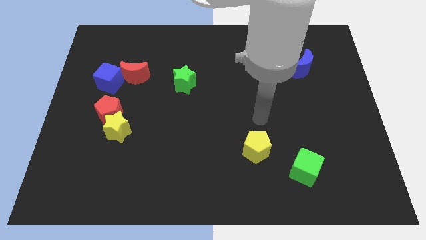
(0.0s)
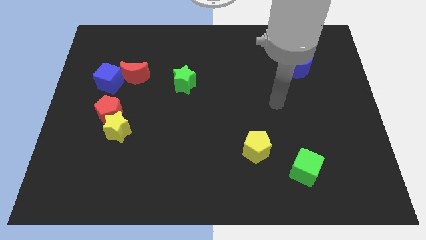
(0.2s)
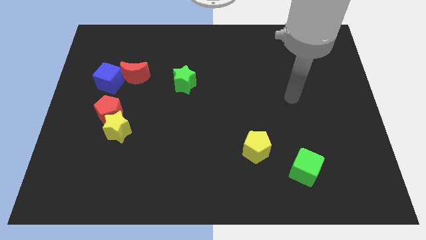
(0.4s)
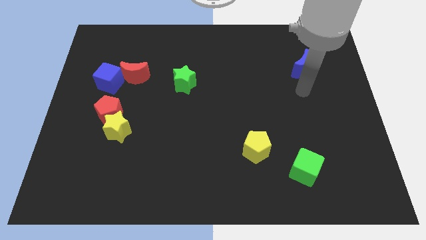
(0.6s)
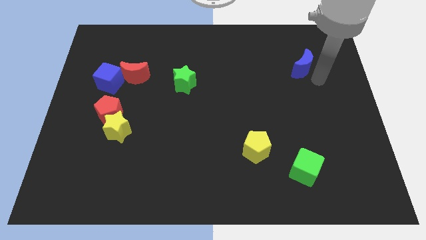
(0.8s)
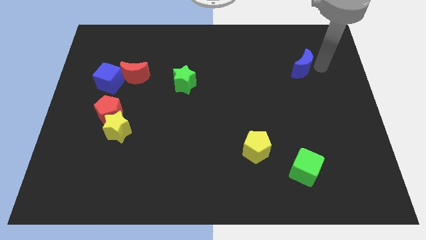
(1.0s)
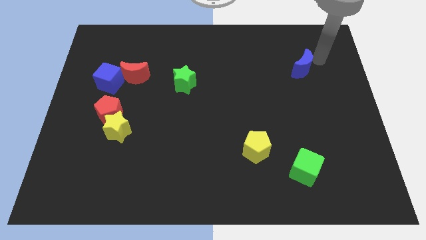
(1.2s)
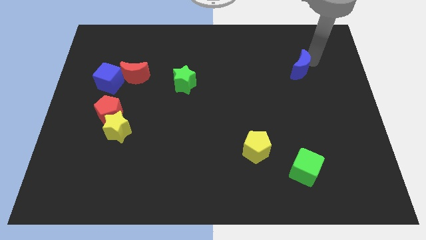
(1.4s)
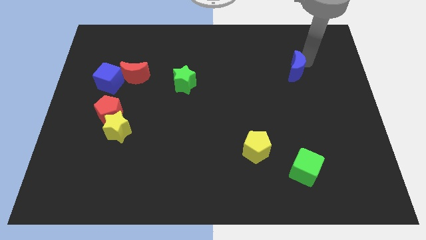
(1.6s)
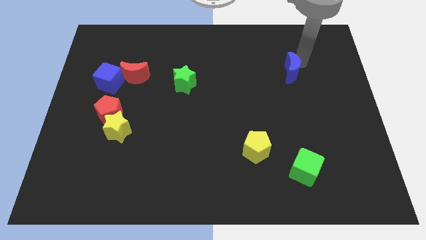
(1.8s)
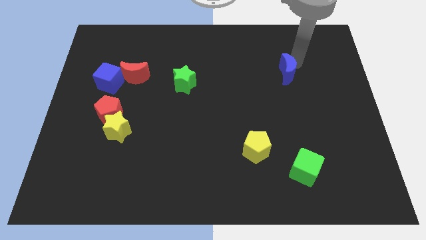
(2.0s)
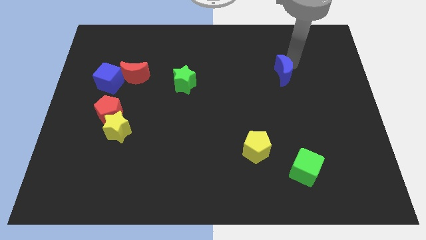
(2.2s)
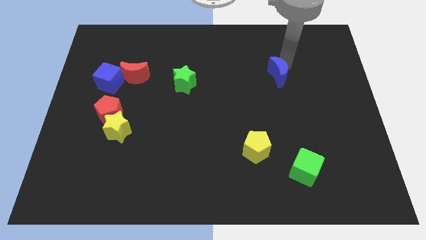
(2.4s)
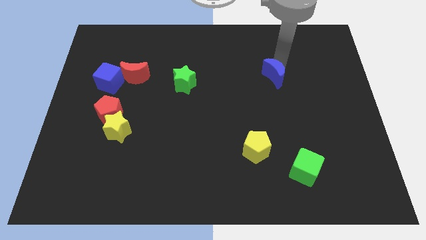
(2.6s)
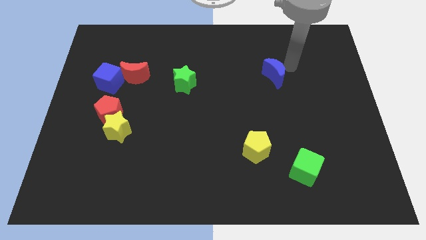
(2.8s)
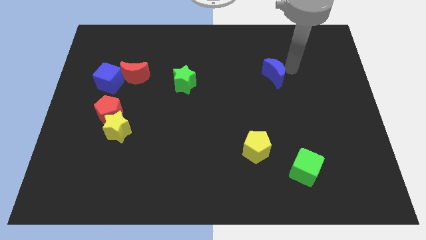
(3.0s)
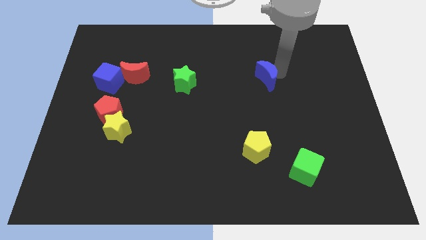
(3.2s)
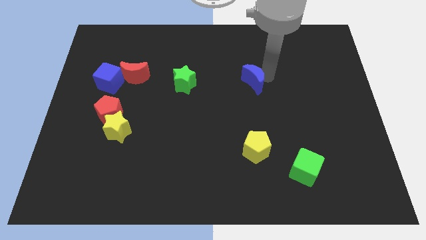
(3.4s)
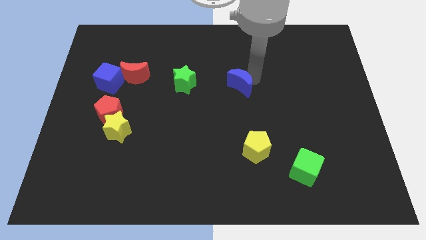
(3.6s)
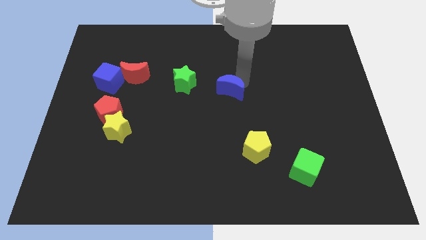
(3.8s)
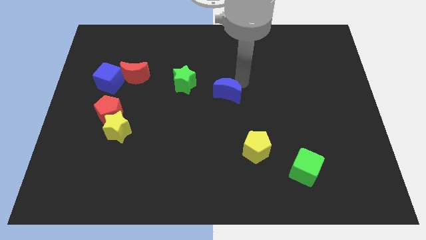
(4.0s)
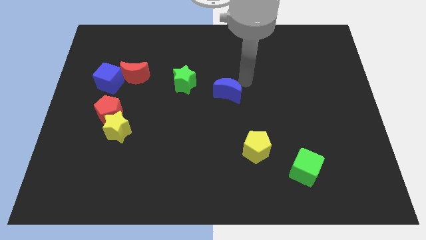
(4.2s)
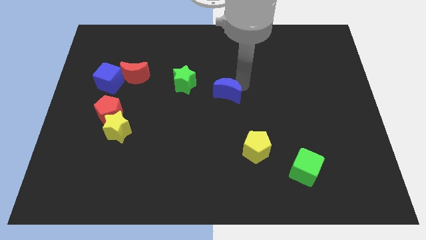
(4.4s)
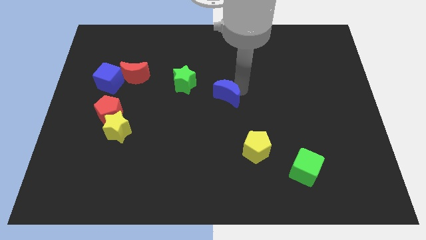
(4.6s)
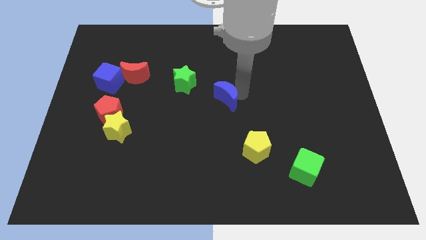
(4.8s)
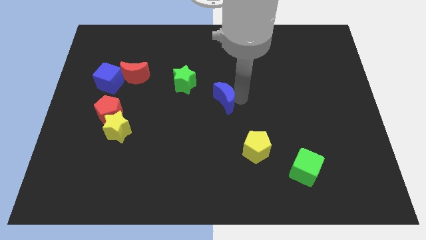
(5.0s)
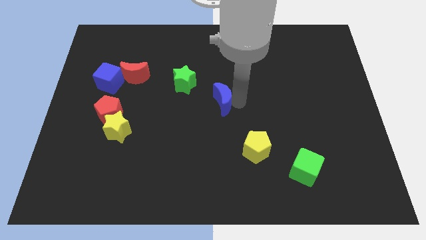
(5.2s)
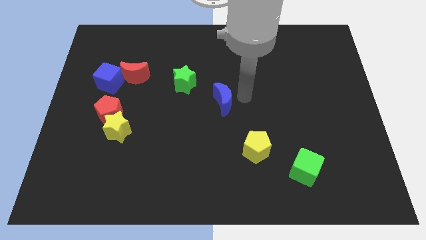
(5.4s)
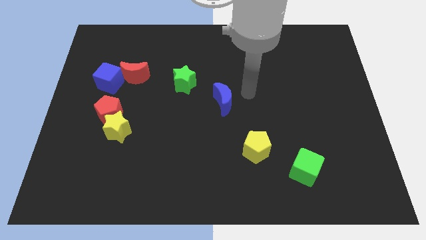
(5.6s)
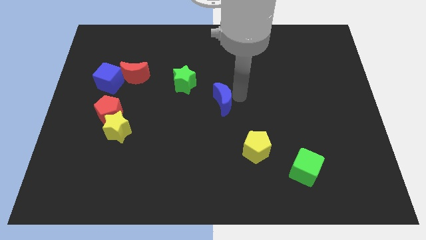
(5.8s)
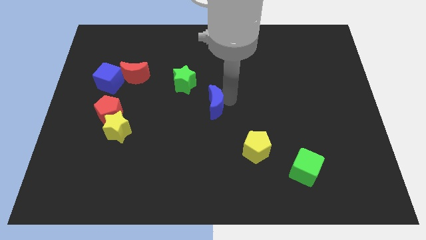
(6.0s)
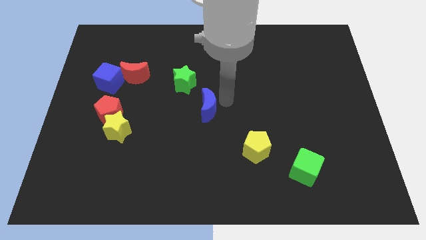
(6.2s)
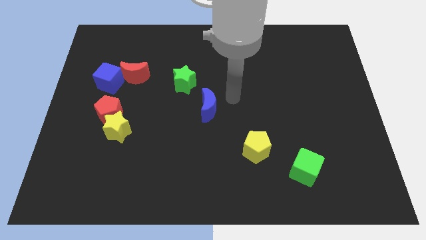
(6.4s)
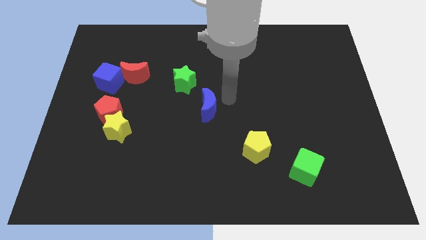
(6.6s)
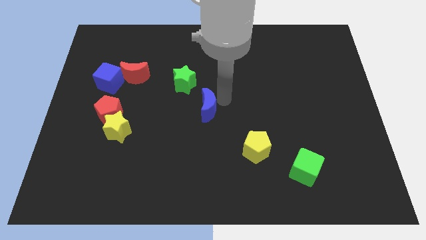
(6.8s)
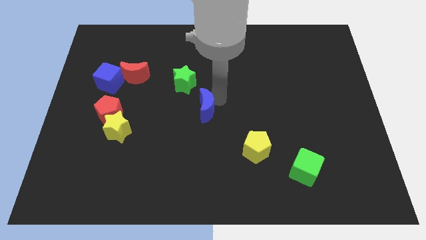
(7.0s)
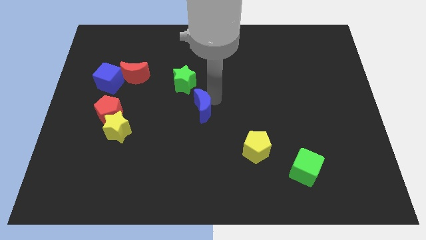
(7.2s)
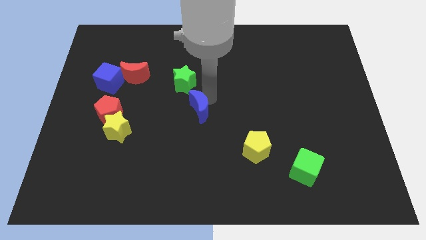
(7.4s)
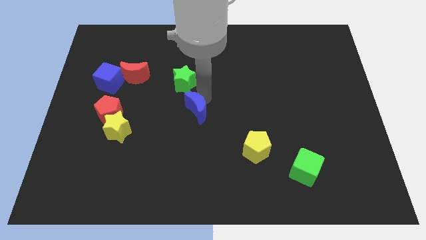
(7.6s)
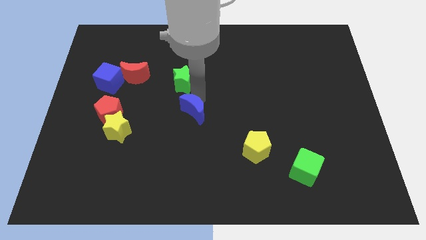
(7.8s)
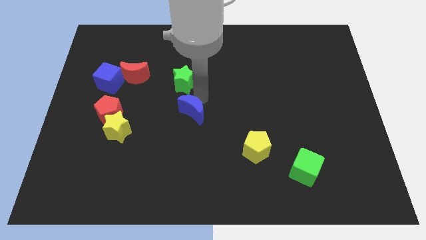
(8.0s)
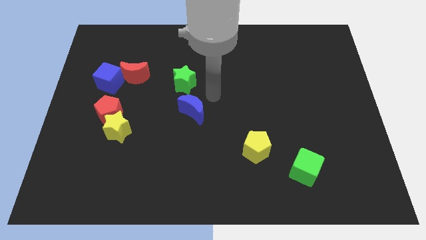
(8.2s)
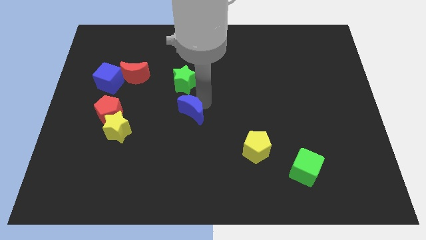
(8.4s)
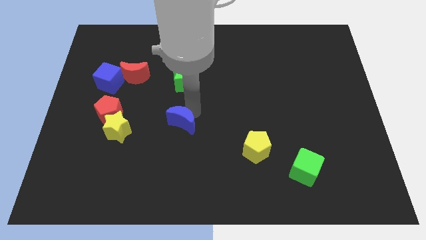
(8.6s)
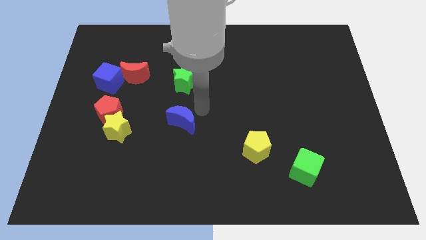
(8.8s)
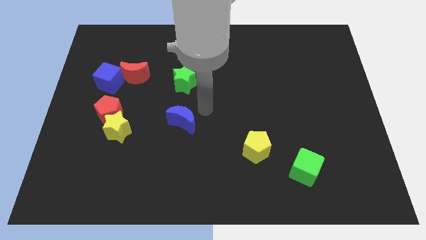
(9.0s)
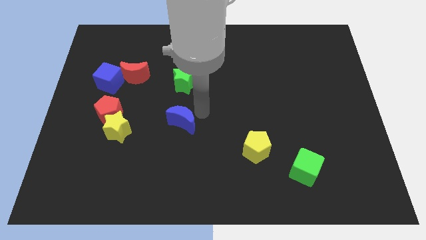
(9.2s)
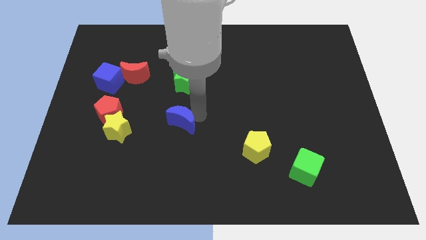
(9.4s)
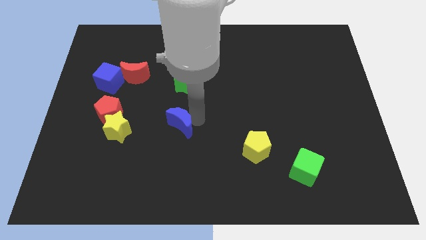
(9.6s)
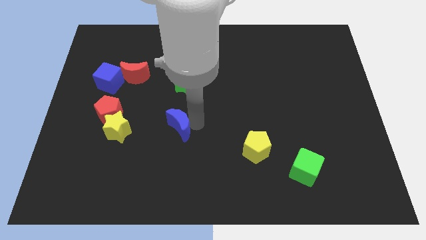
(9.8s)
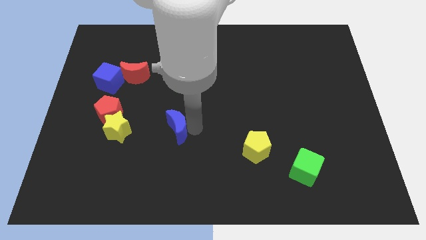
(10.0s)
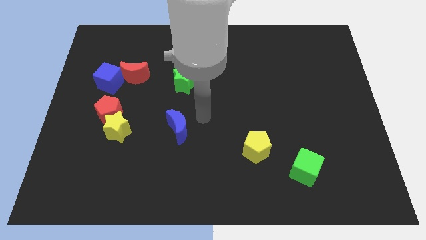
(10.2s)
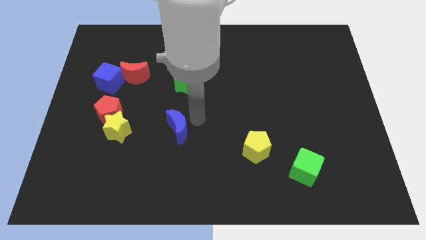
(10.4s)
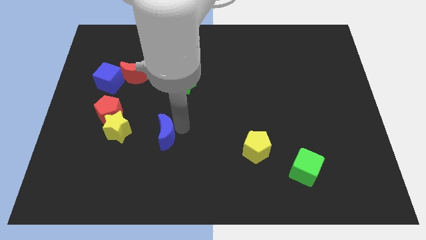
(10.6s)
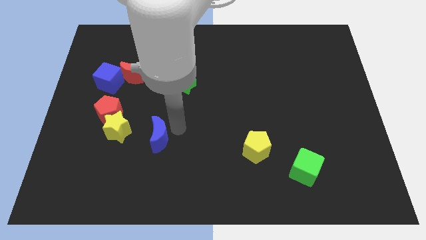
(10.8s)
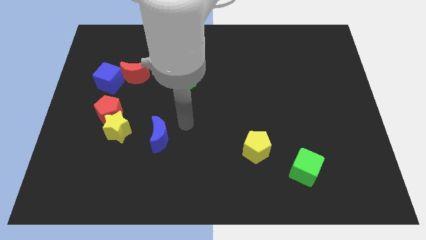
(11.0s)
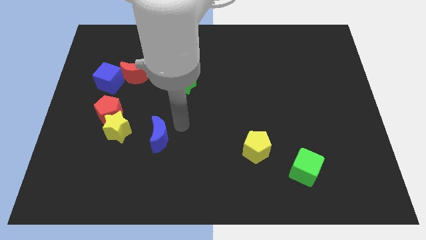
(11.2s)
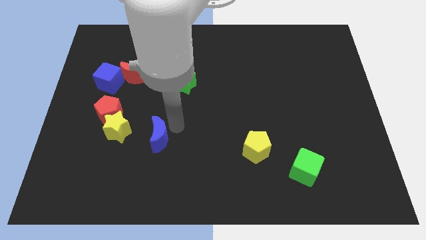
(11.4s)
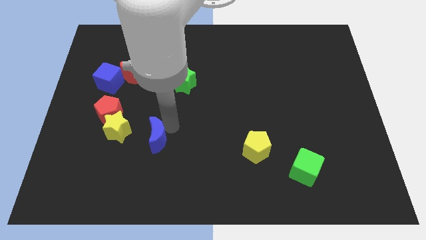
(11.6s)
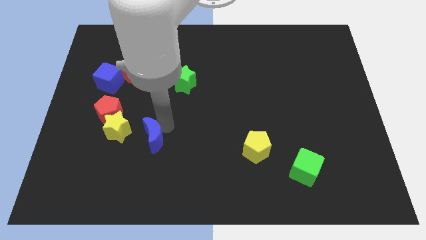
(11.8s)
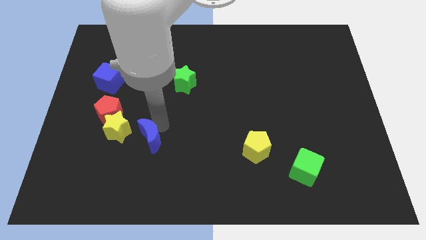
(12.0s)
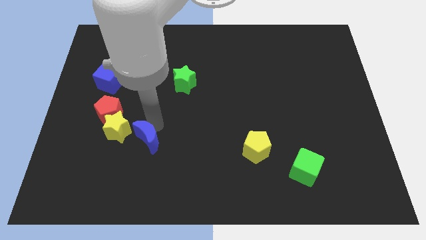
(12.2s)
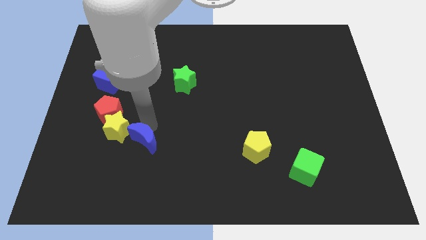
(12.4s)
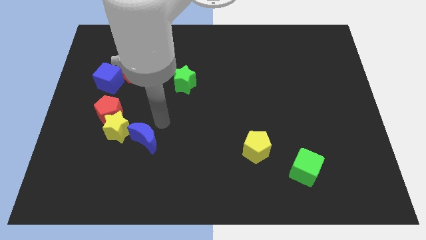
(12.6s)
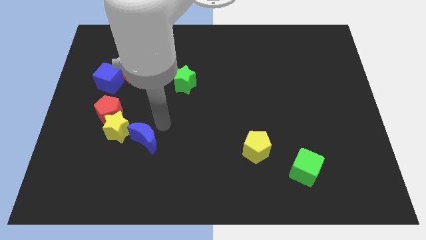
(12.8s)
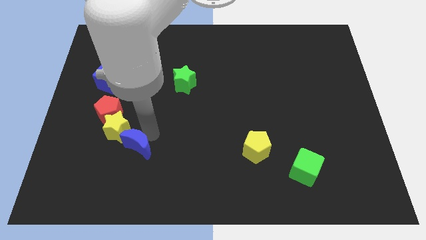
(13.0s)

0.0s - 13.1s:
move the blue moon to the bottom side of the yellow star

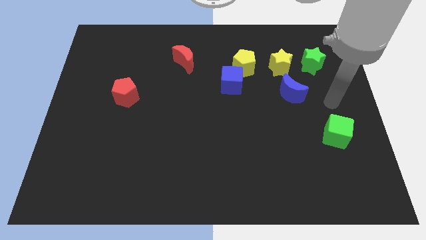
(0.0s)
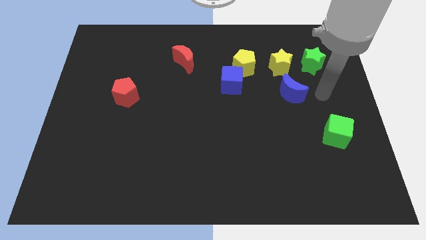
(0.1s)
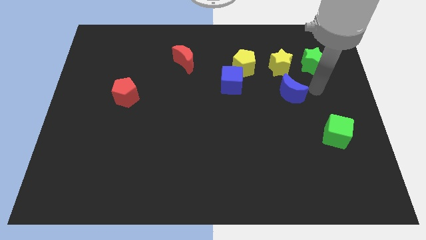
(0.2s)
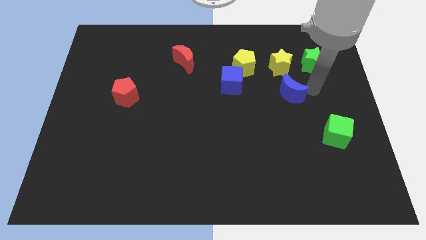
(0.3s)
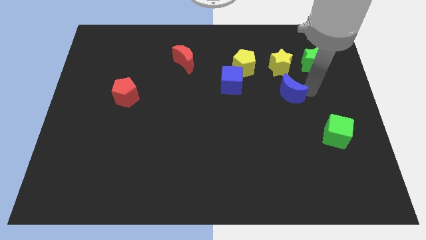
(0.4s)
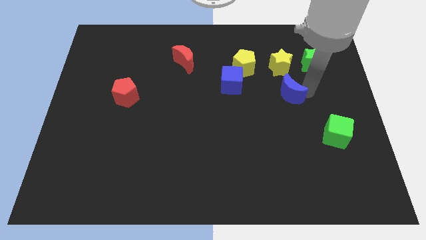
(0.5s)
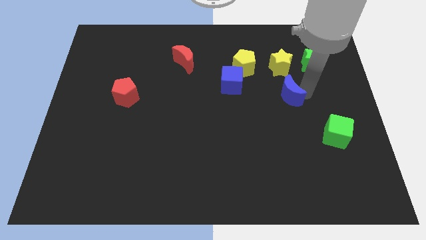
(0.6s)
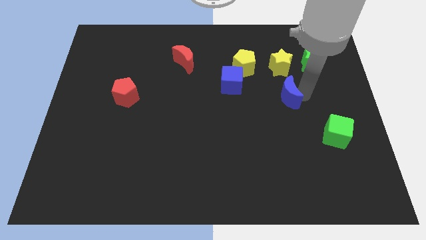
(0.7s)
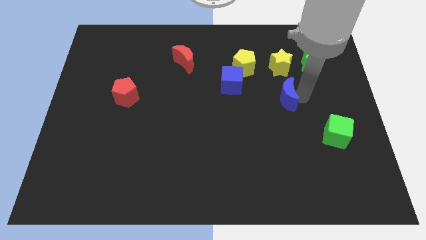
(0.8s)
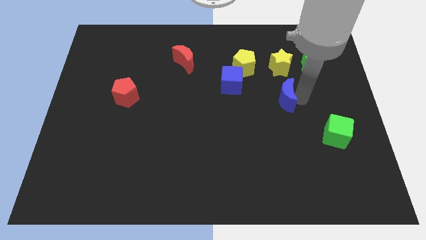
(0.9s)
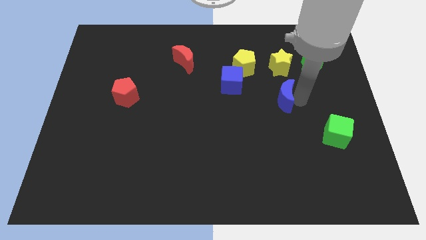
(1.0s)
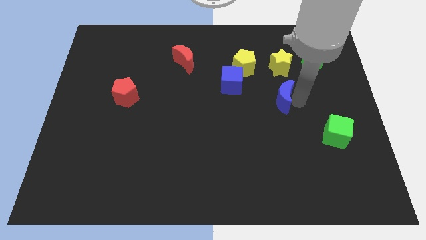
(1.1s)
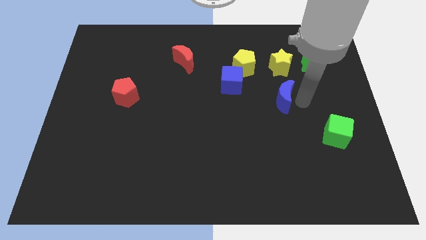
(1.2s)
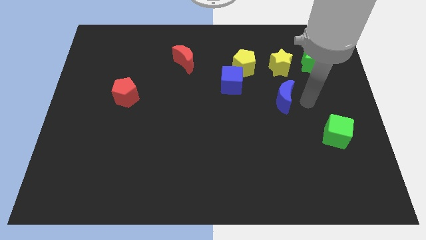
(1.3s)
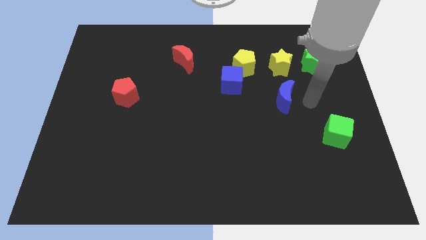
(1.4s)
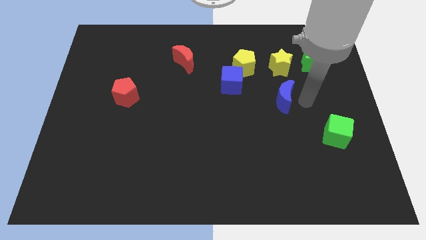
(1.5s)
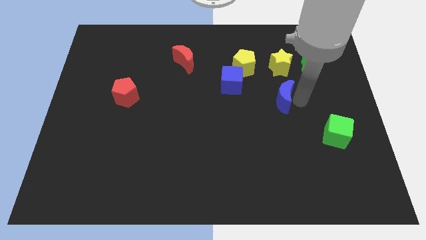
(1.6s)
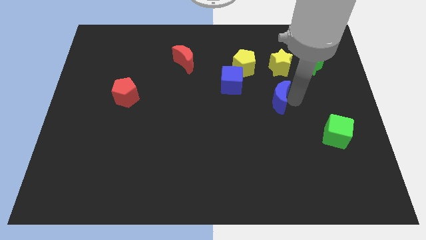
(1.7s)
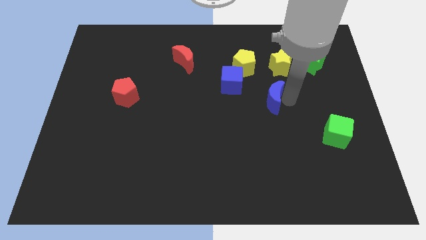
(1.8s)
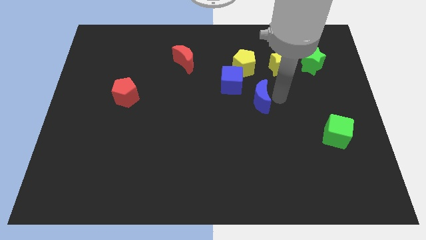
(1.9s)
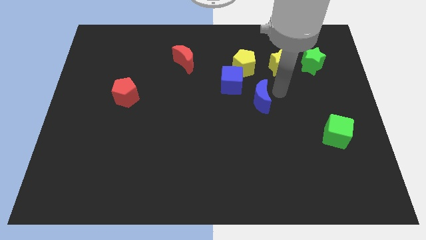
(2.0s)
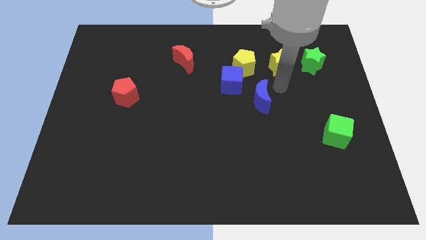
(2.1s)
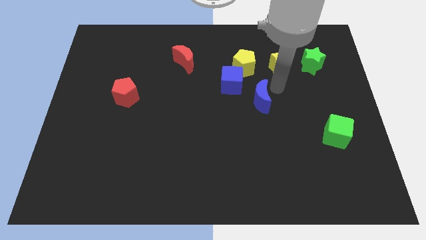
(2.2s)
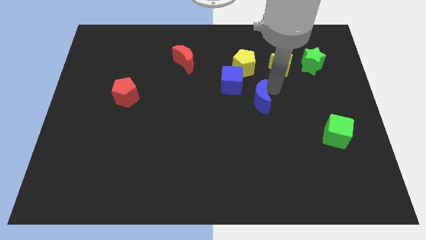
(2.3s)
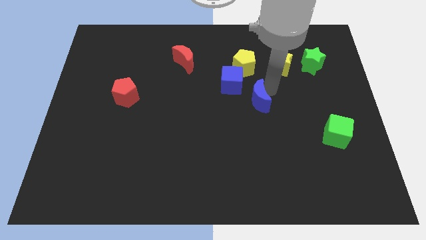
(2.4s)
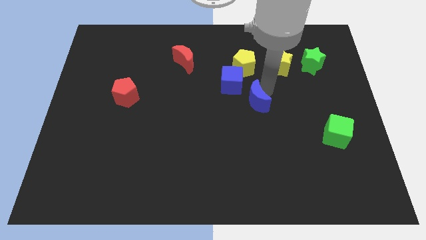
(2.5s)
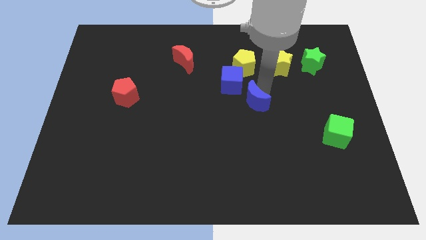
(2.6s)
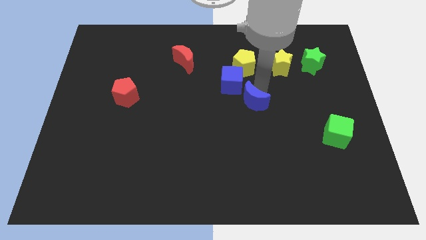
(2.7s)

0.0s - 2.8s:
push the blue moon to the bottom side of the blue cube
